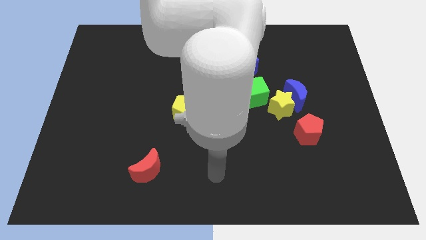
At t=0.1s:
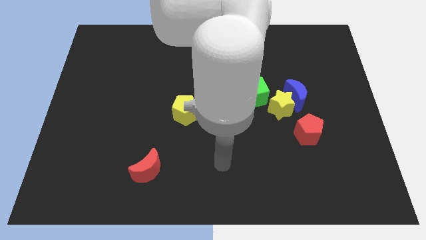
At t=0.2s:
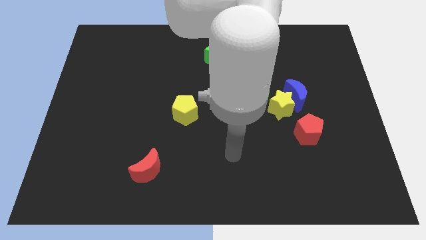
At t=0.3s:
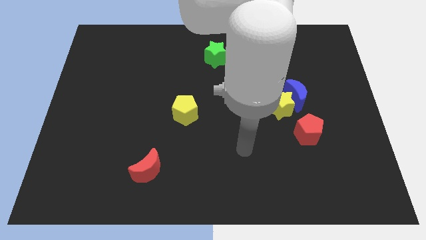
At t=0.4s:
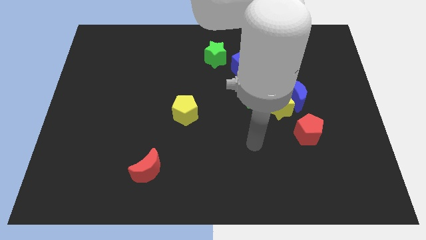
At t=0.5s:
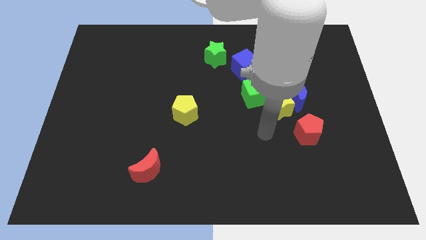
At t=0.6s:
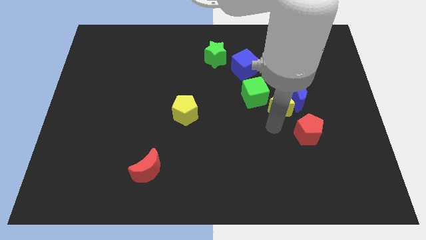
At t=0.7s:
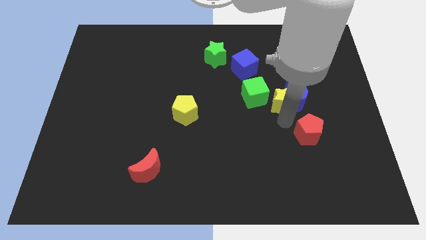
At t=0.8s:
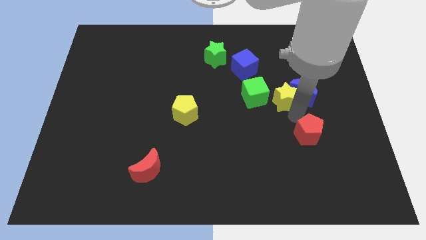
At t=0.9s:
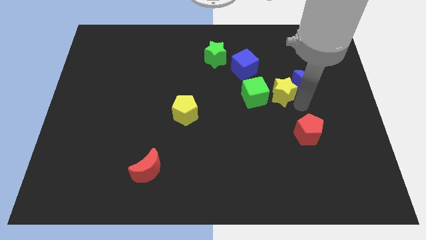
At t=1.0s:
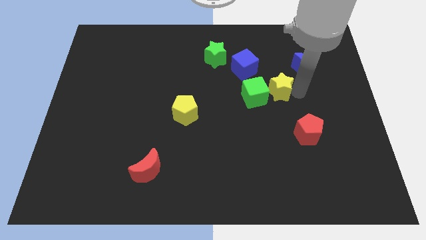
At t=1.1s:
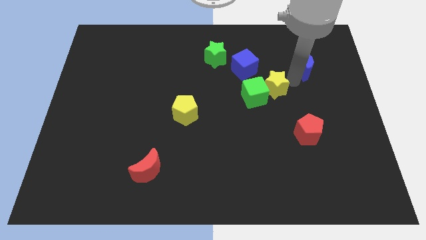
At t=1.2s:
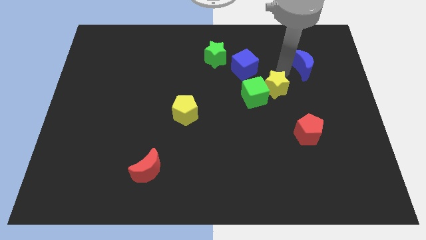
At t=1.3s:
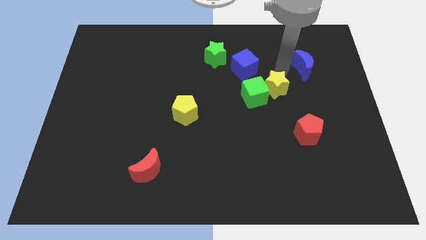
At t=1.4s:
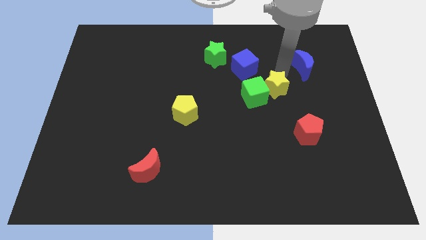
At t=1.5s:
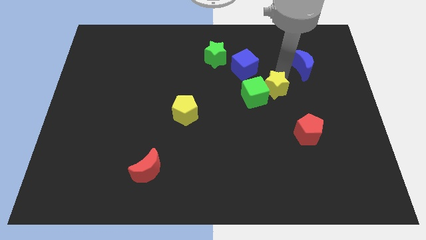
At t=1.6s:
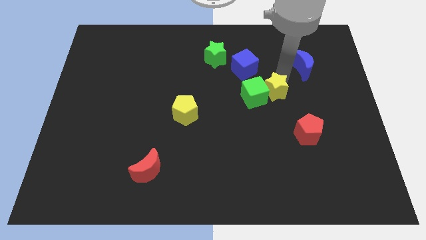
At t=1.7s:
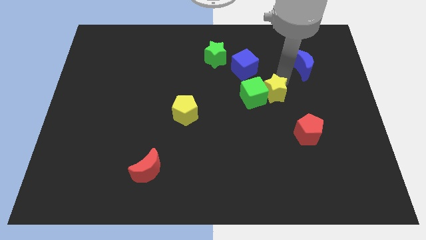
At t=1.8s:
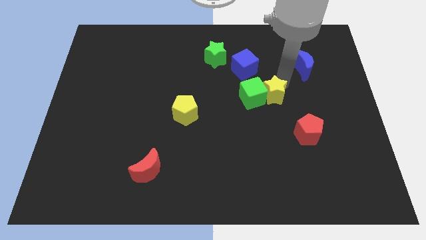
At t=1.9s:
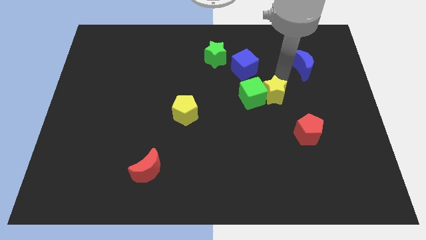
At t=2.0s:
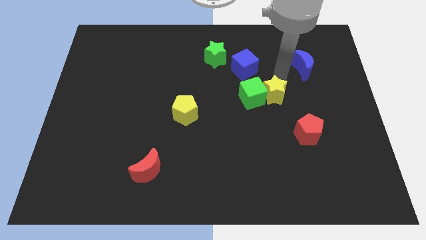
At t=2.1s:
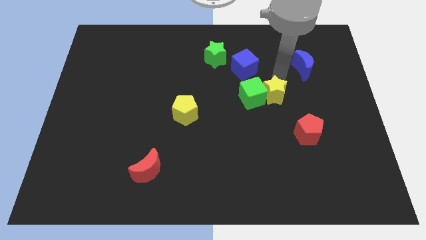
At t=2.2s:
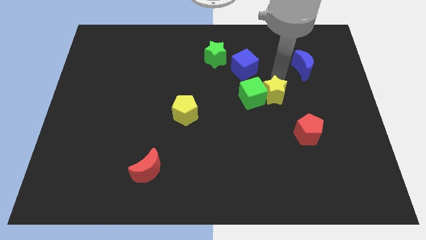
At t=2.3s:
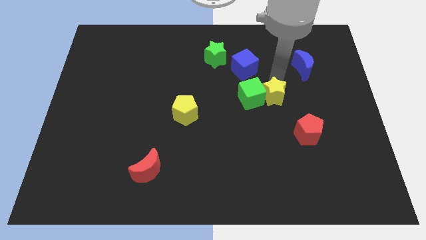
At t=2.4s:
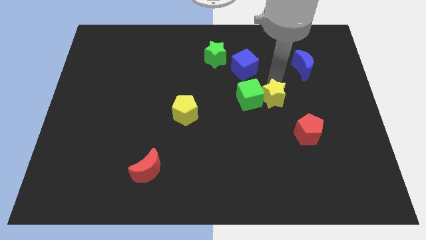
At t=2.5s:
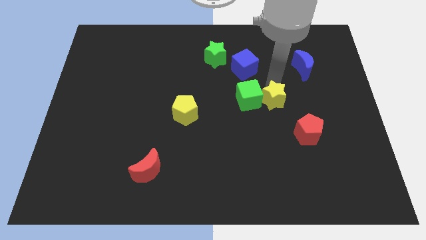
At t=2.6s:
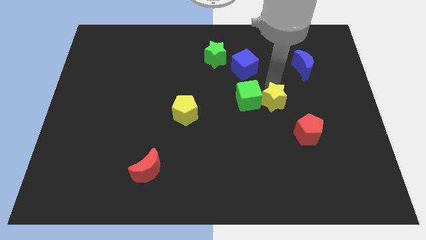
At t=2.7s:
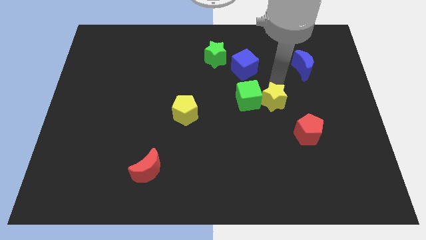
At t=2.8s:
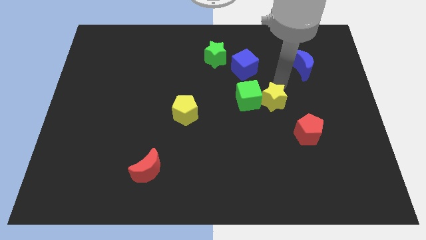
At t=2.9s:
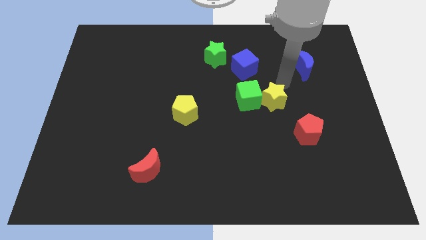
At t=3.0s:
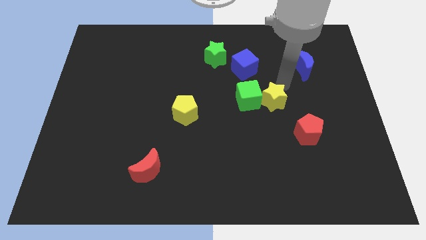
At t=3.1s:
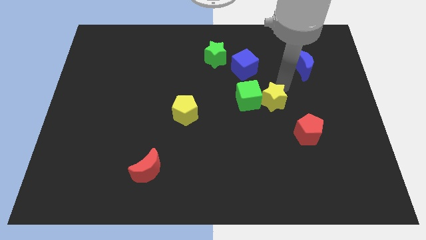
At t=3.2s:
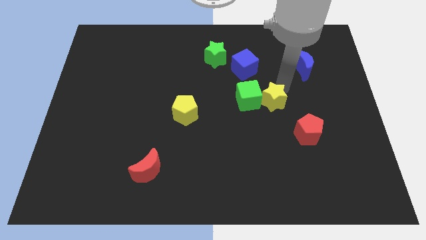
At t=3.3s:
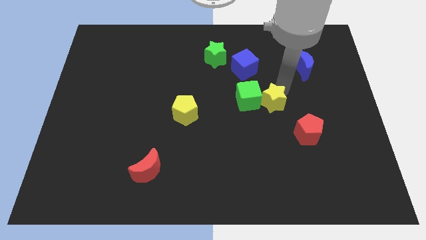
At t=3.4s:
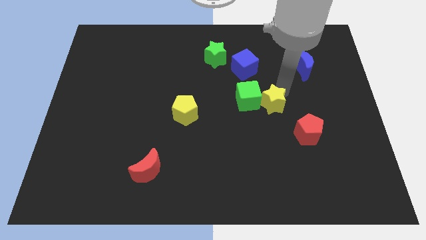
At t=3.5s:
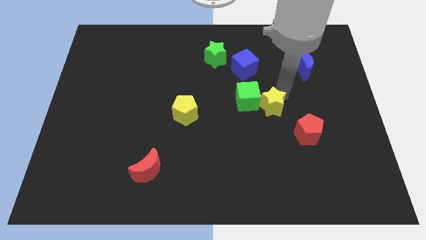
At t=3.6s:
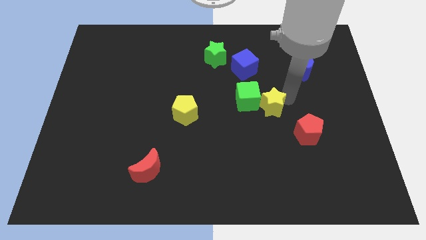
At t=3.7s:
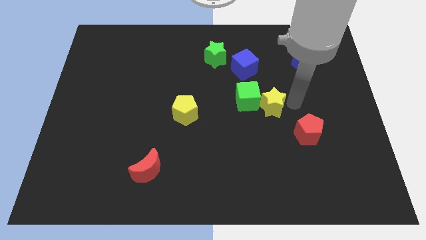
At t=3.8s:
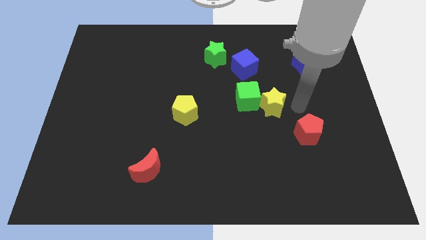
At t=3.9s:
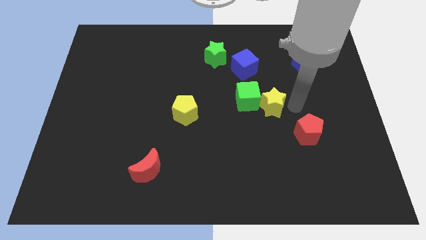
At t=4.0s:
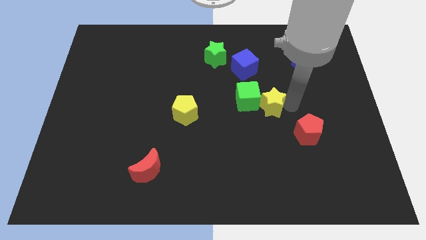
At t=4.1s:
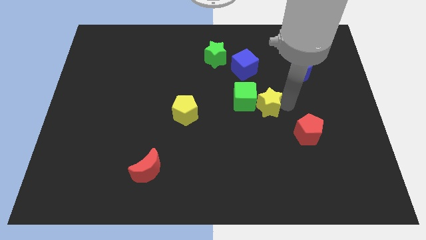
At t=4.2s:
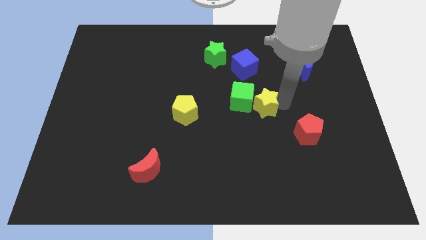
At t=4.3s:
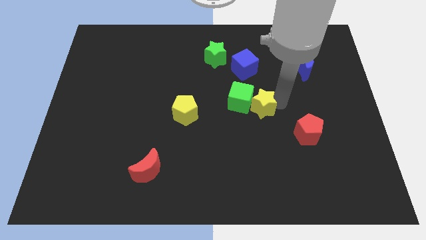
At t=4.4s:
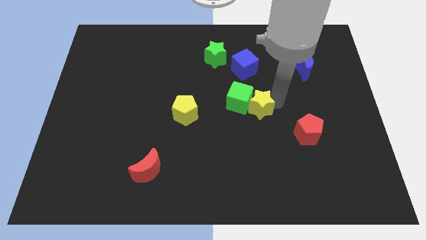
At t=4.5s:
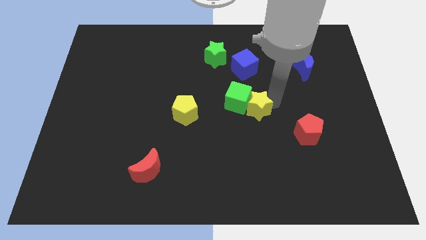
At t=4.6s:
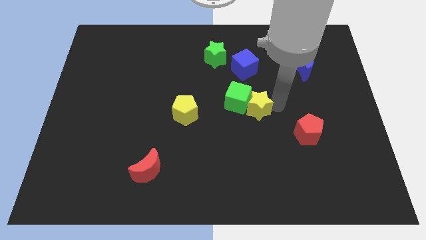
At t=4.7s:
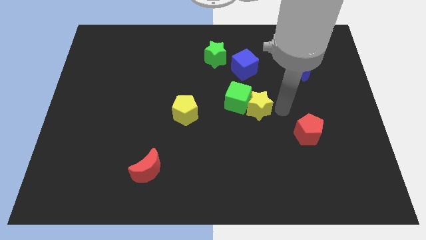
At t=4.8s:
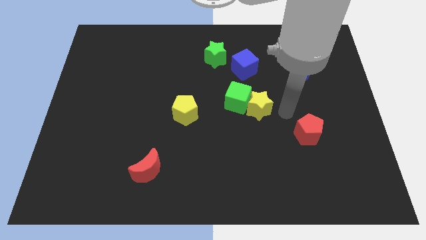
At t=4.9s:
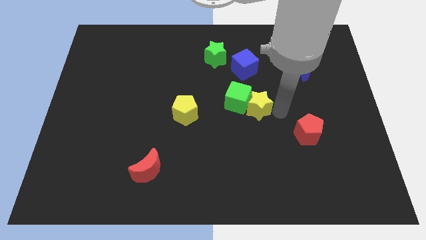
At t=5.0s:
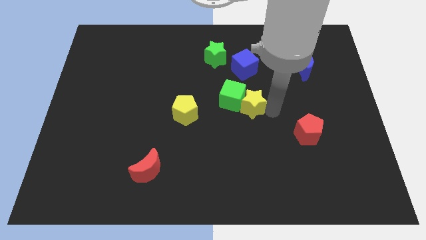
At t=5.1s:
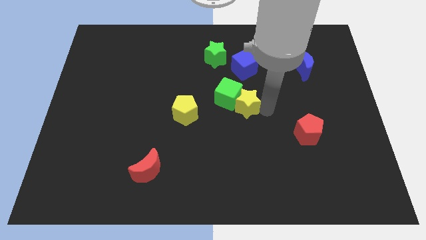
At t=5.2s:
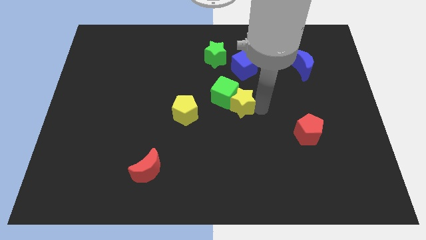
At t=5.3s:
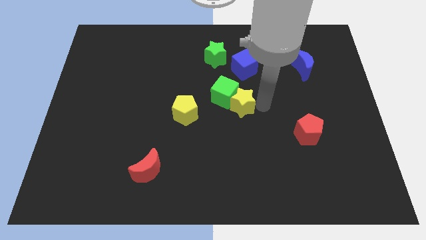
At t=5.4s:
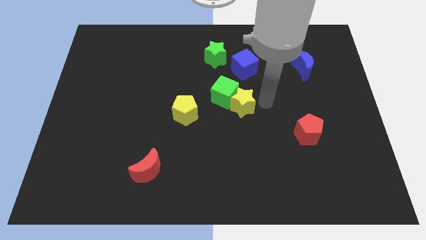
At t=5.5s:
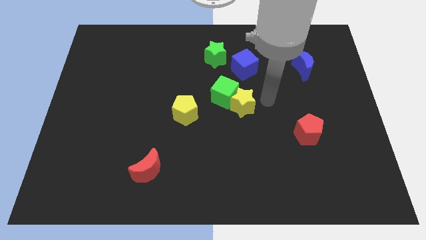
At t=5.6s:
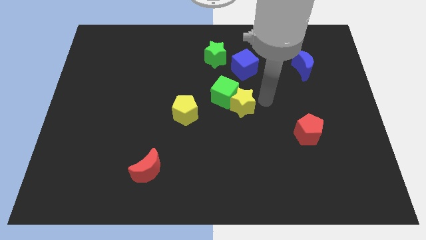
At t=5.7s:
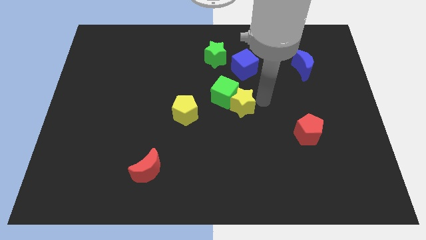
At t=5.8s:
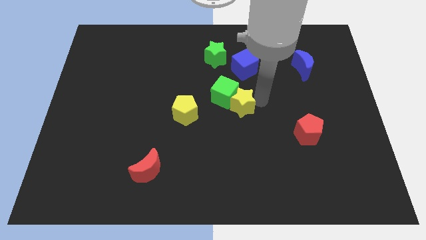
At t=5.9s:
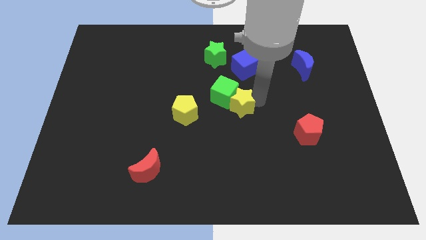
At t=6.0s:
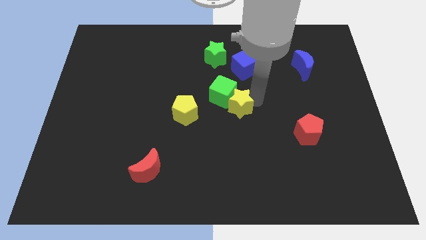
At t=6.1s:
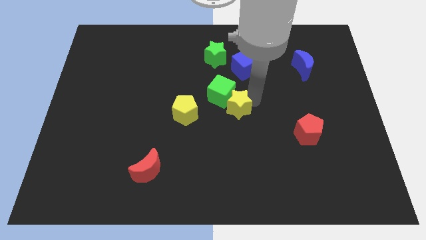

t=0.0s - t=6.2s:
separate the yellow star from the blue moon, green cube, and red pentagon

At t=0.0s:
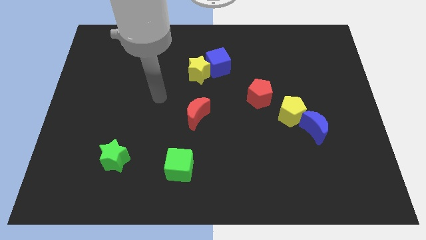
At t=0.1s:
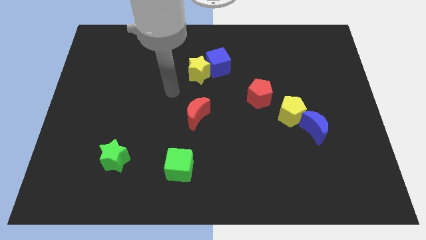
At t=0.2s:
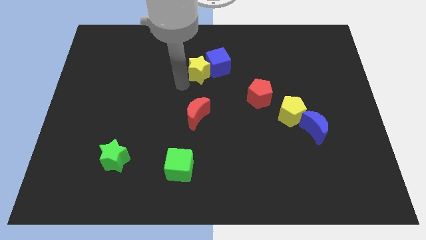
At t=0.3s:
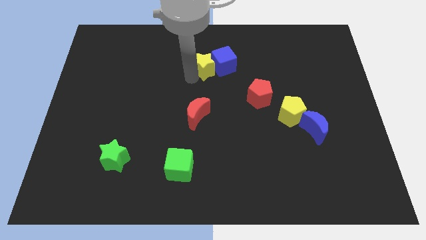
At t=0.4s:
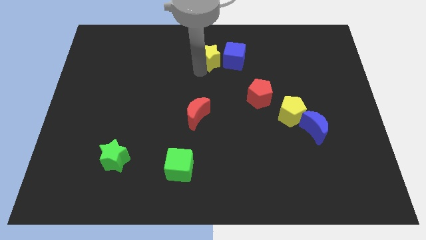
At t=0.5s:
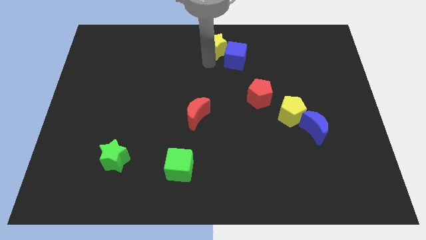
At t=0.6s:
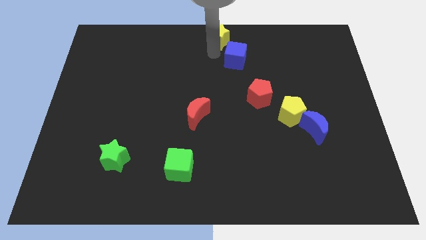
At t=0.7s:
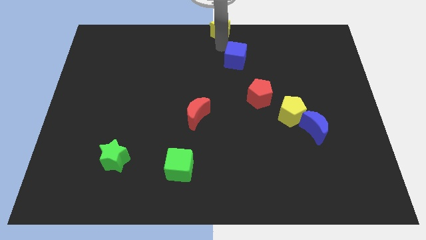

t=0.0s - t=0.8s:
move the blue cube away from the yellow star

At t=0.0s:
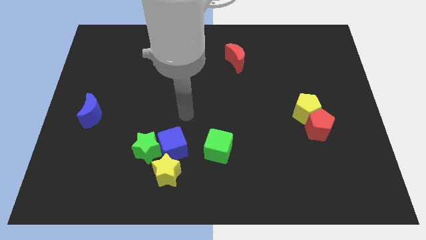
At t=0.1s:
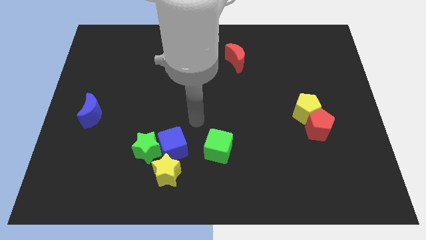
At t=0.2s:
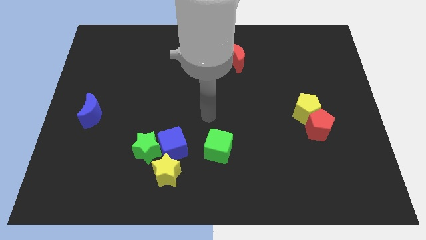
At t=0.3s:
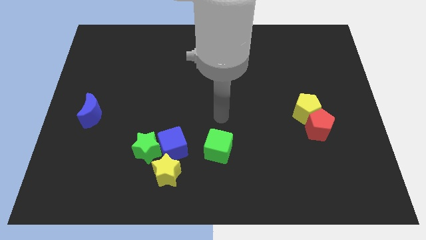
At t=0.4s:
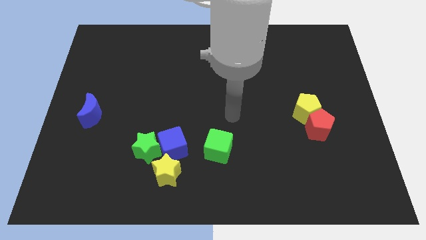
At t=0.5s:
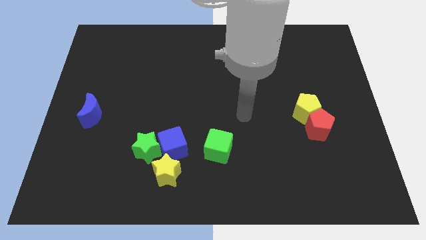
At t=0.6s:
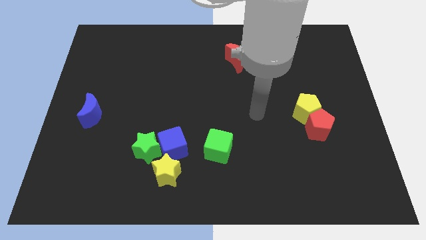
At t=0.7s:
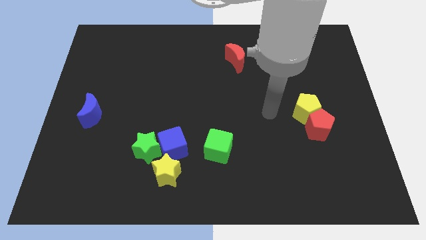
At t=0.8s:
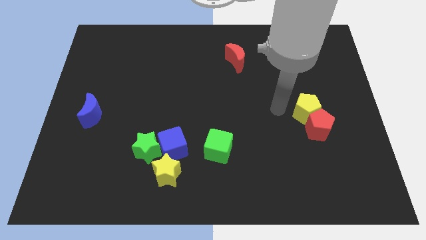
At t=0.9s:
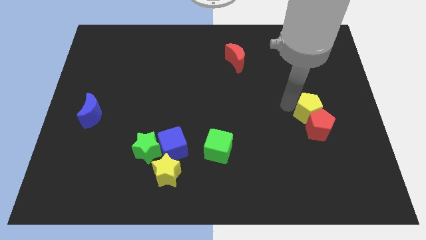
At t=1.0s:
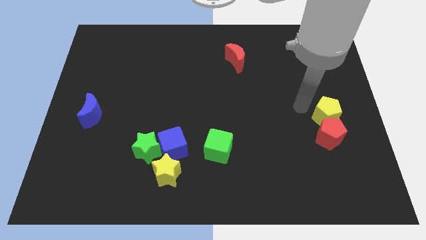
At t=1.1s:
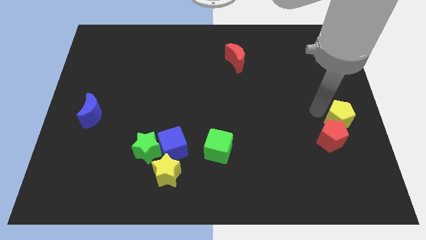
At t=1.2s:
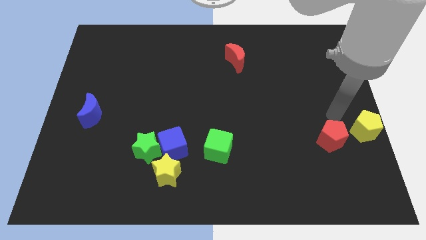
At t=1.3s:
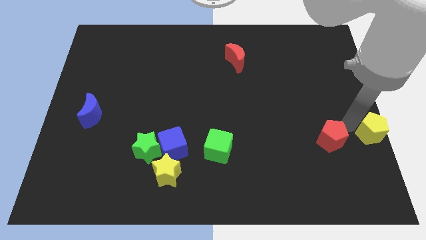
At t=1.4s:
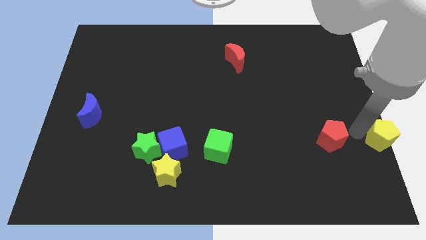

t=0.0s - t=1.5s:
separate the red pentagon from the yellow pentagon

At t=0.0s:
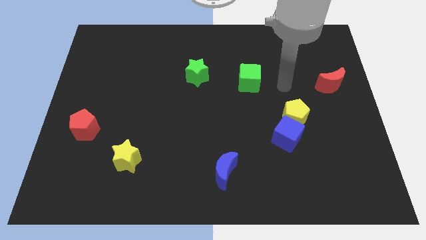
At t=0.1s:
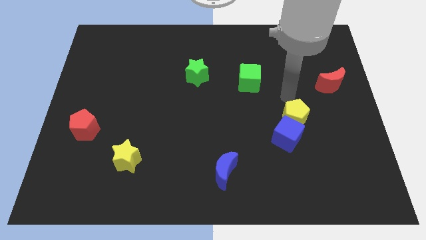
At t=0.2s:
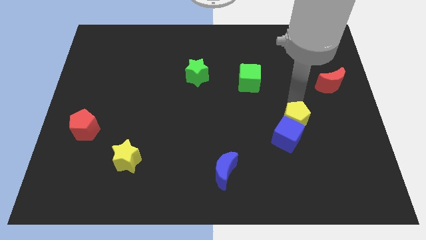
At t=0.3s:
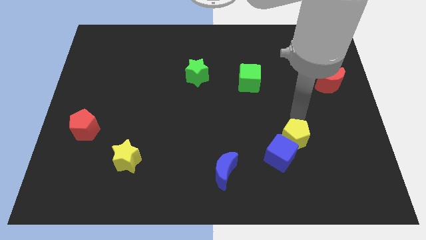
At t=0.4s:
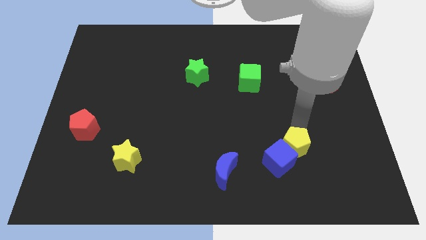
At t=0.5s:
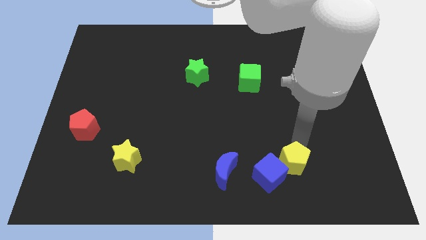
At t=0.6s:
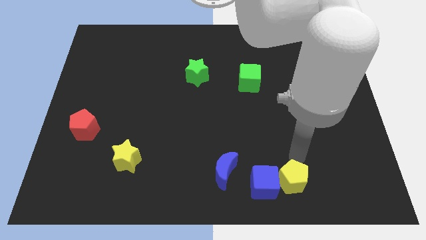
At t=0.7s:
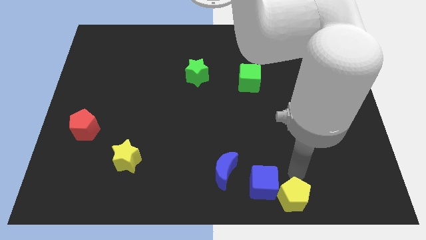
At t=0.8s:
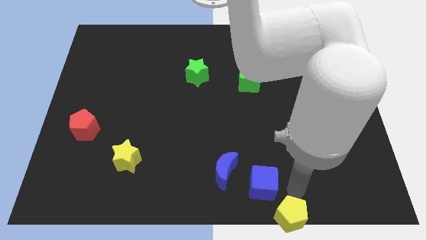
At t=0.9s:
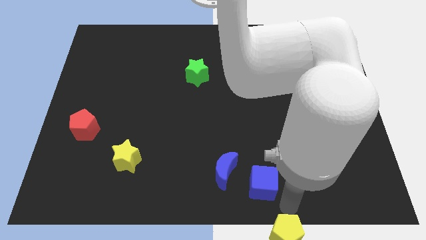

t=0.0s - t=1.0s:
move the blue cube away from the yellow pentagon
